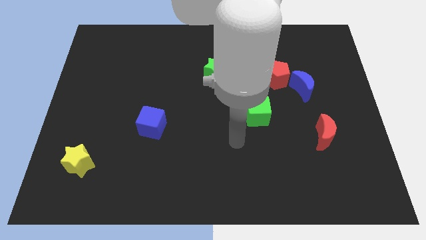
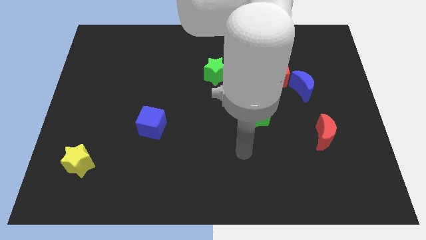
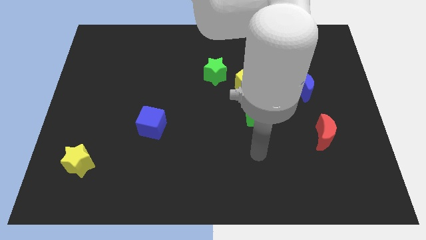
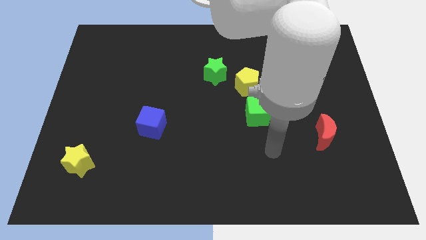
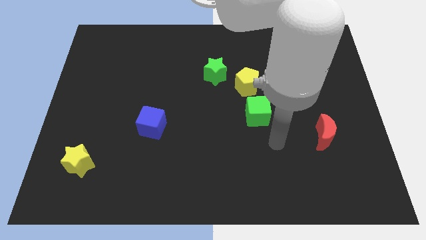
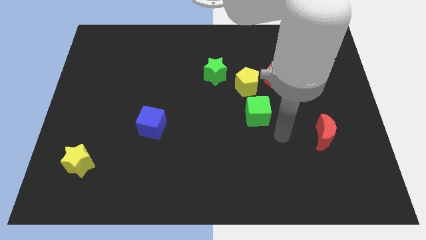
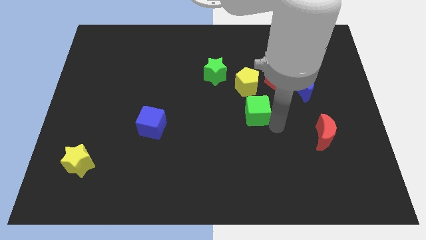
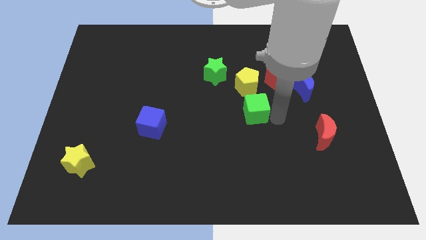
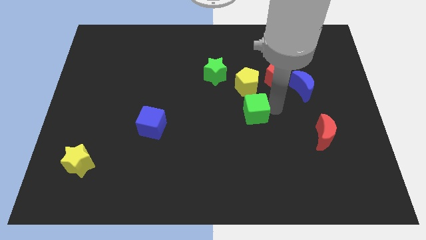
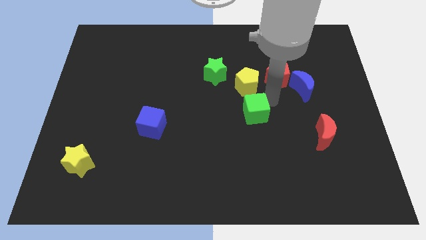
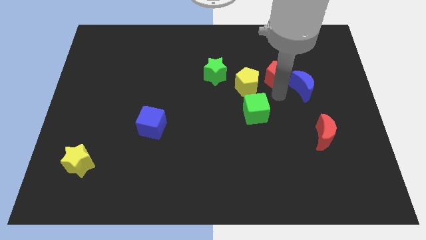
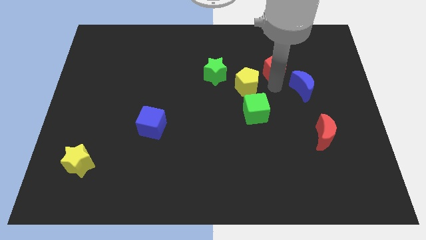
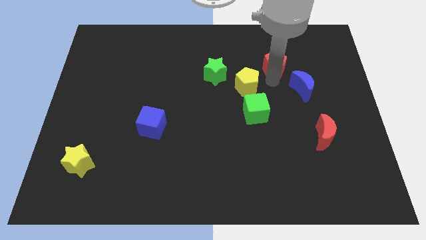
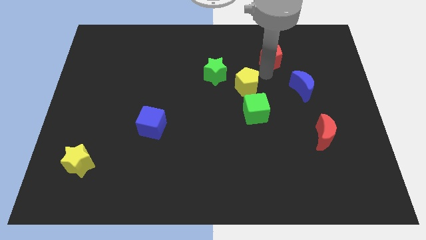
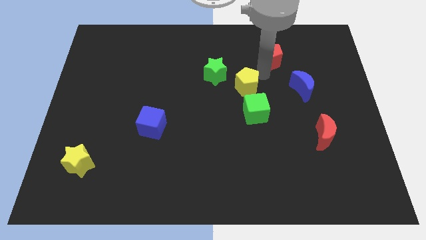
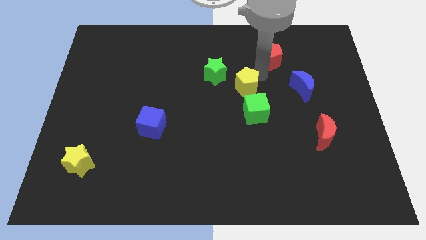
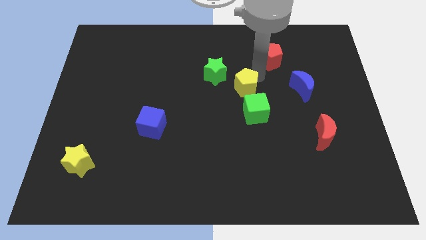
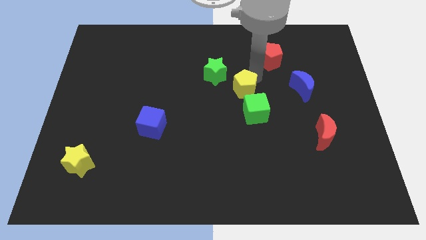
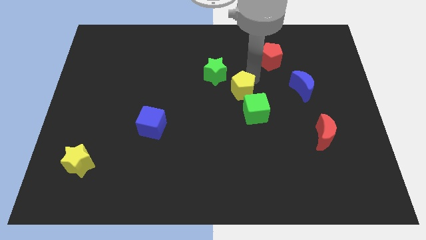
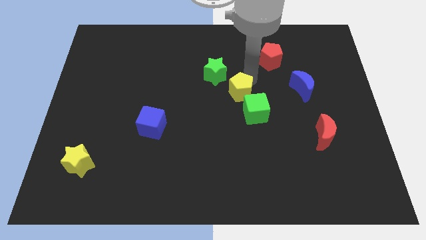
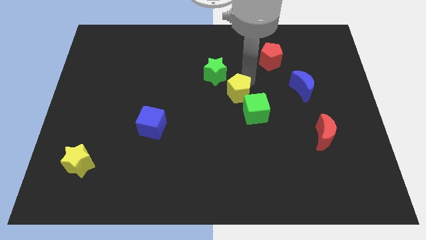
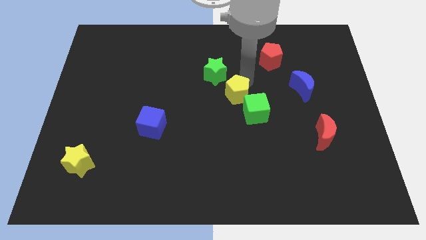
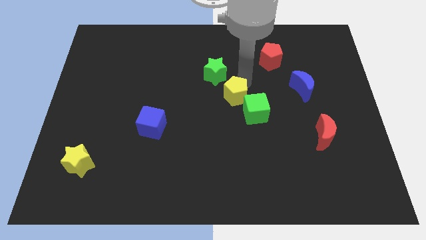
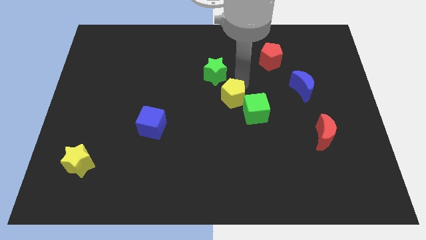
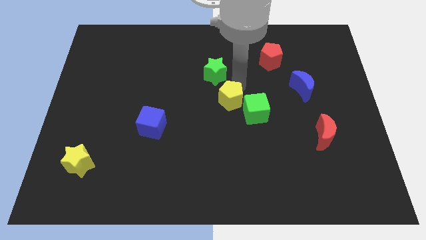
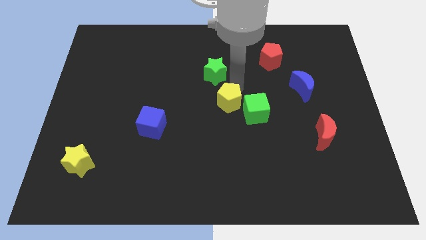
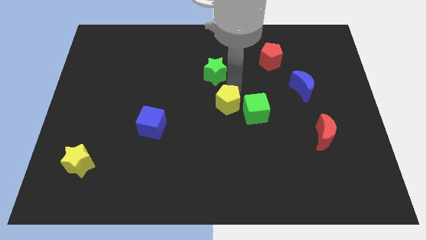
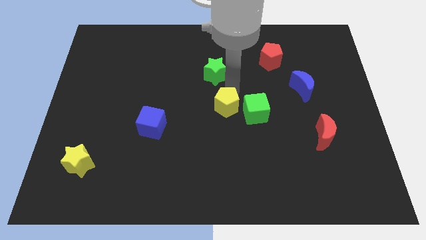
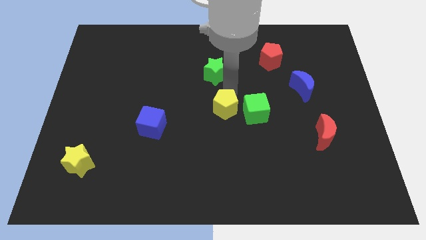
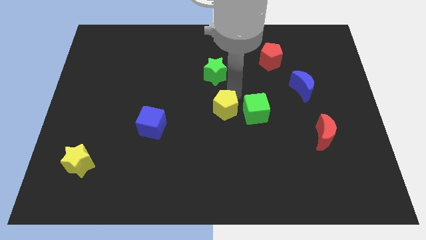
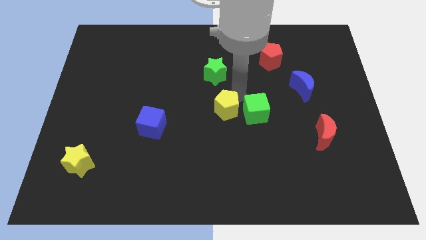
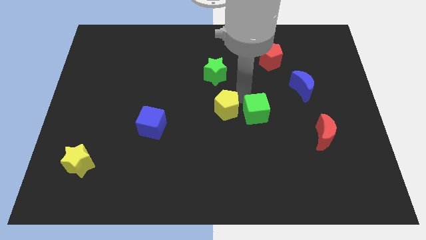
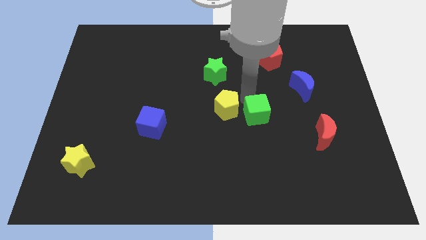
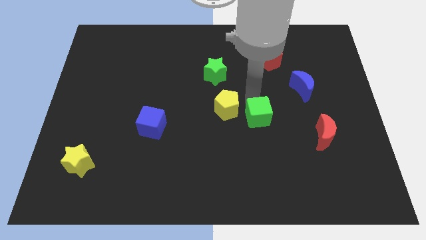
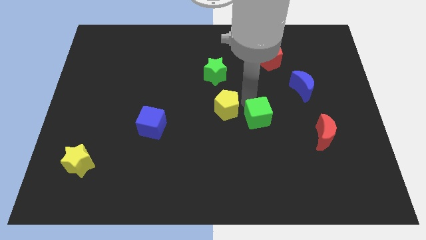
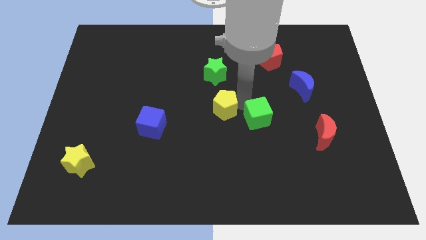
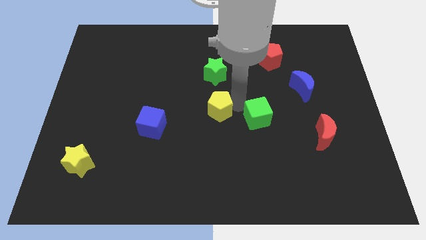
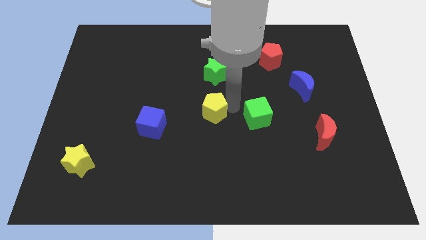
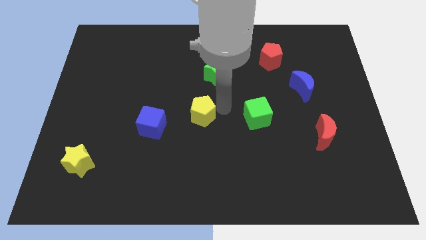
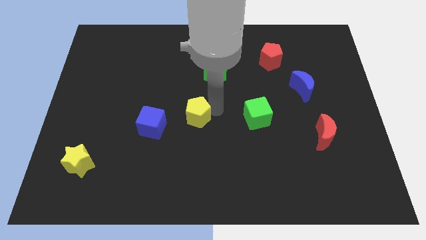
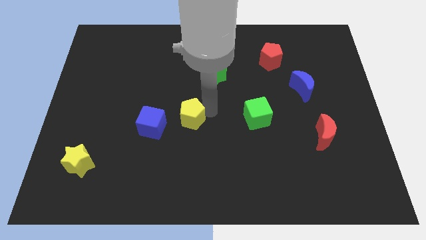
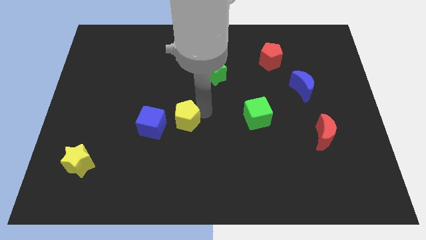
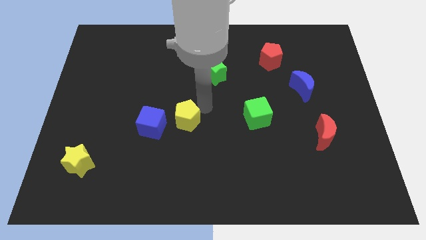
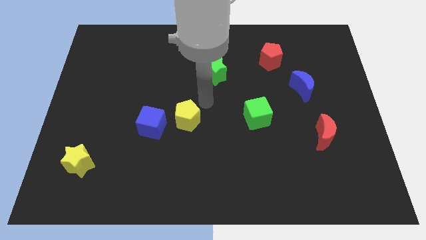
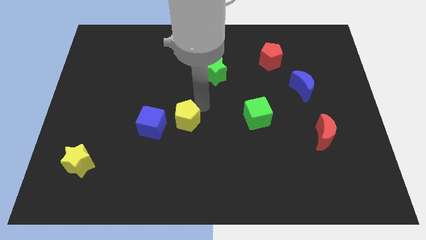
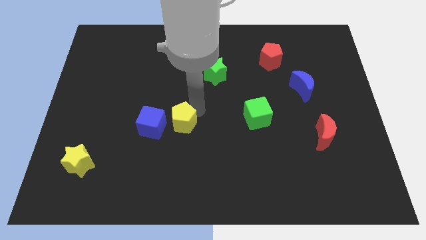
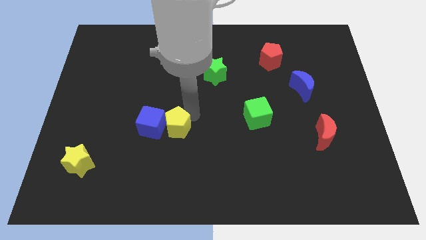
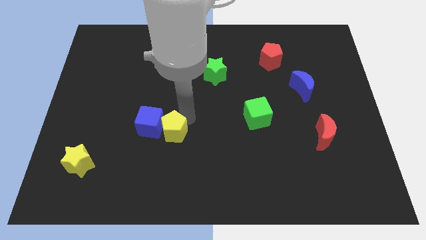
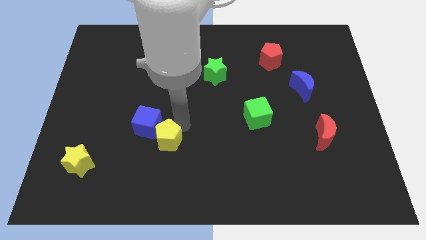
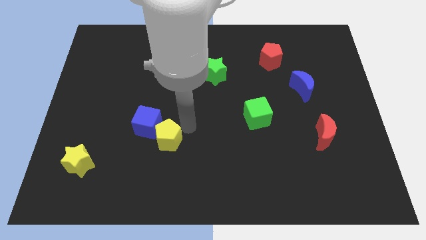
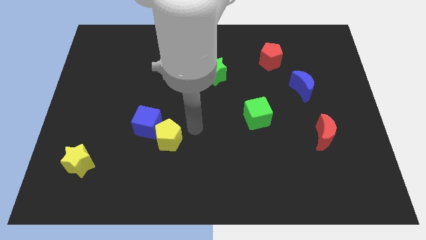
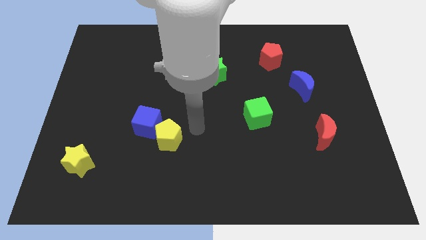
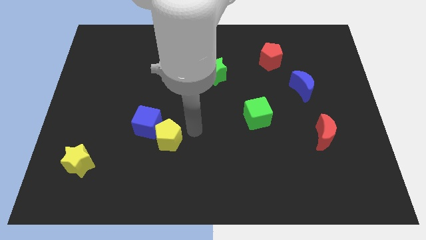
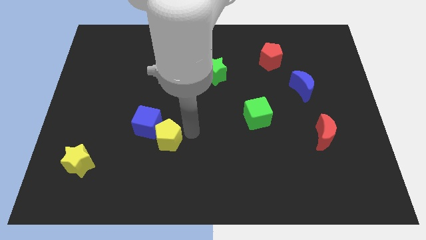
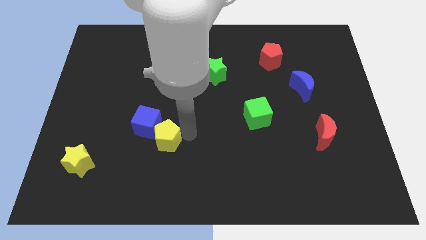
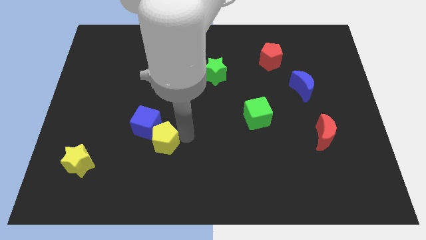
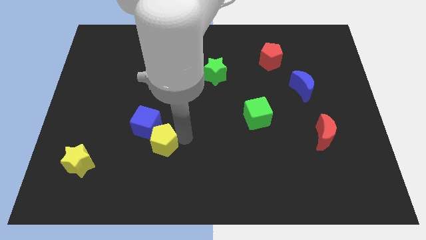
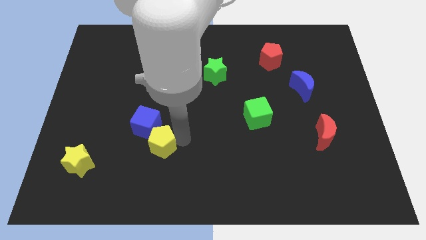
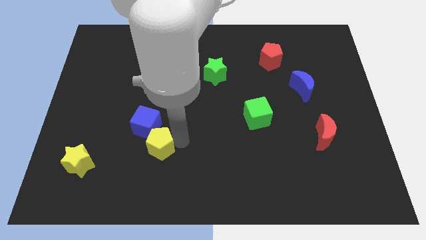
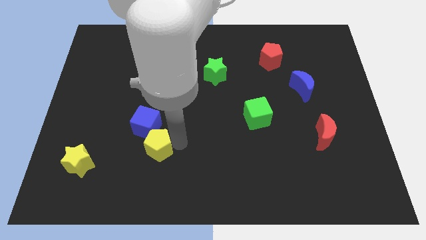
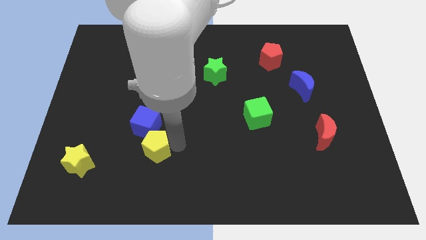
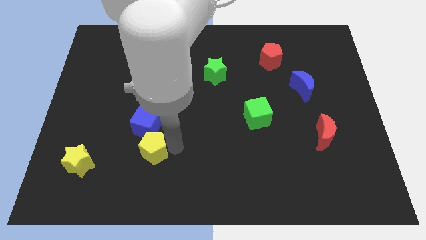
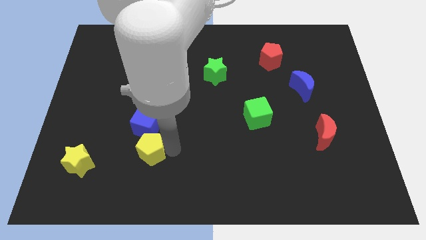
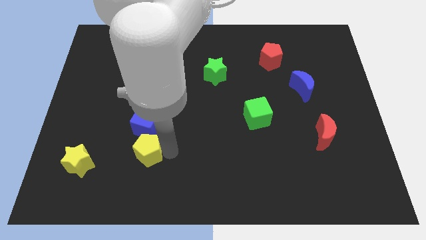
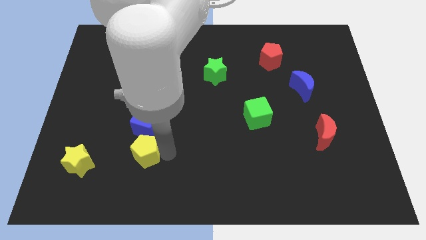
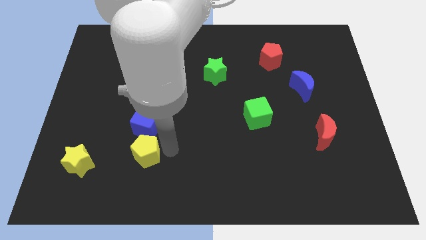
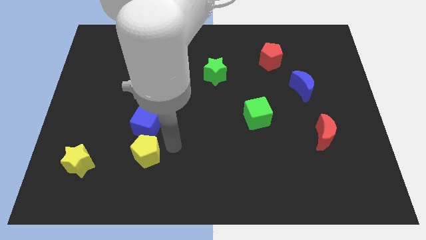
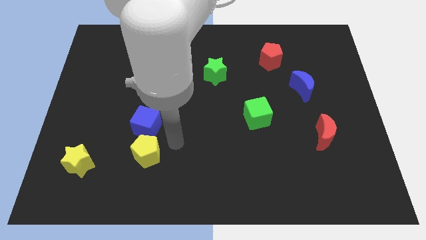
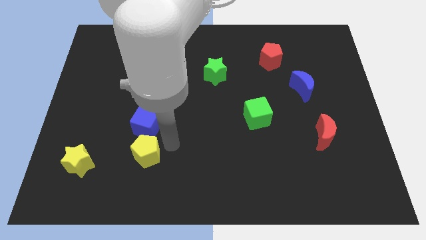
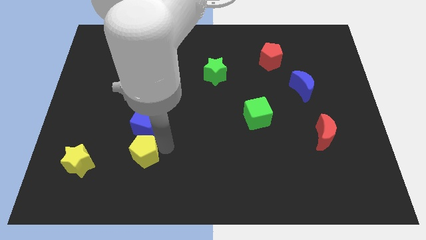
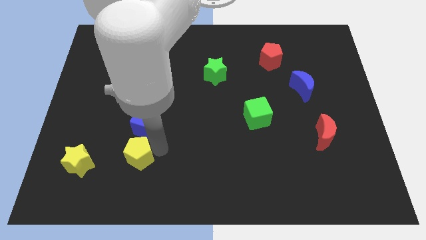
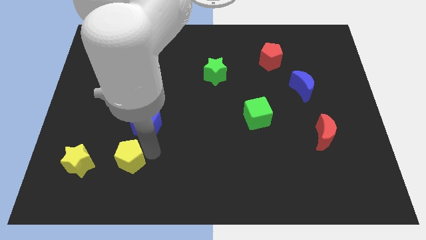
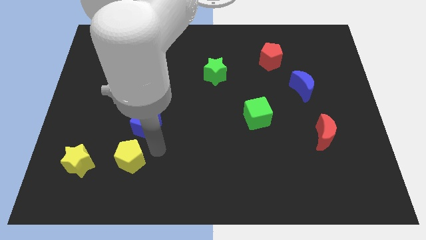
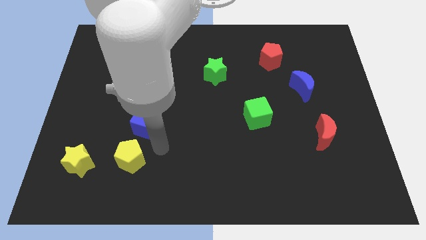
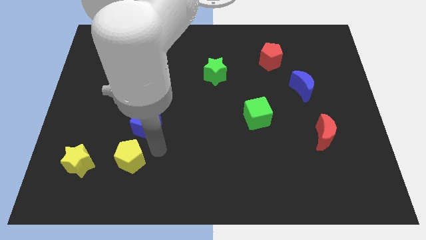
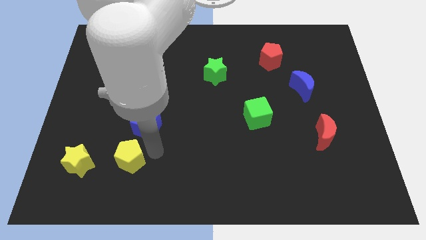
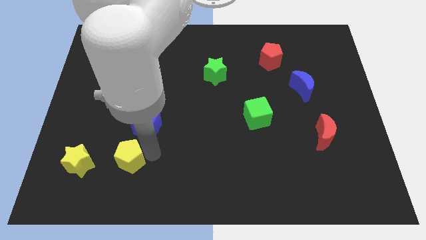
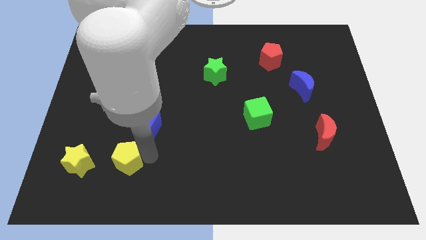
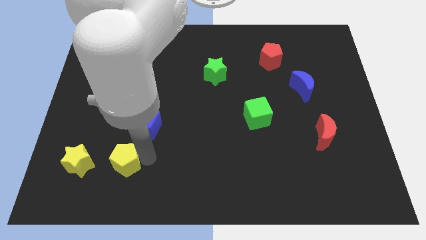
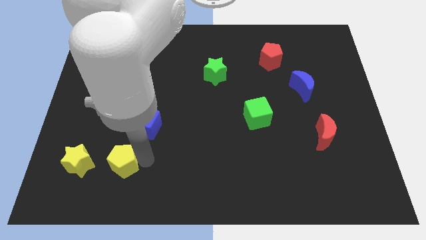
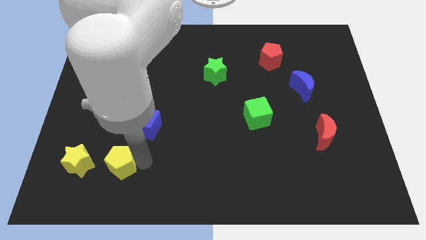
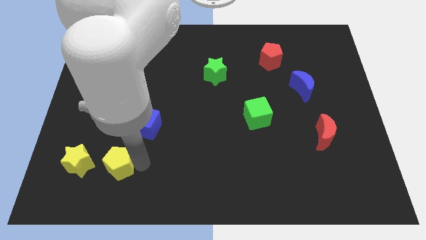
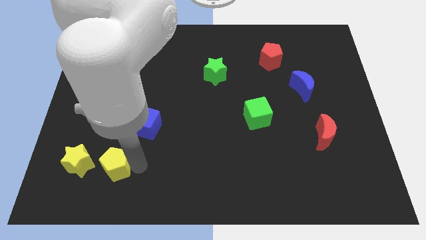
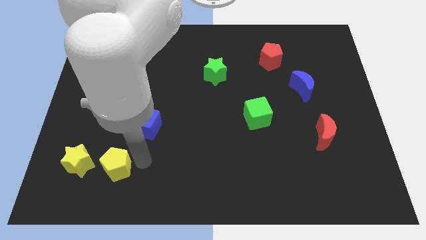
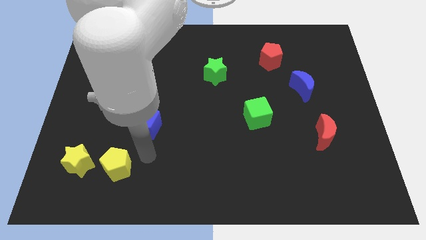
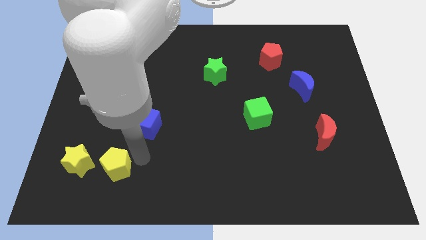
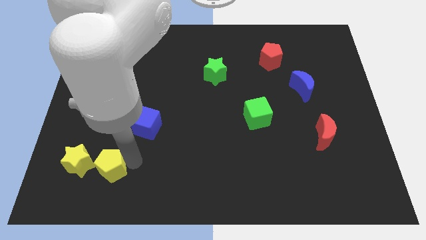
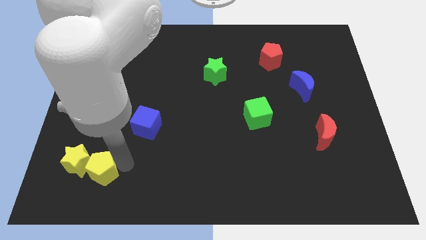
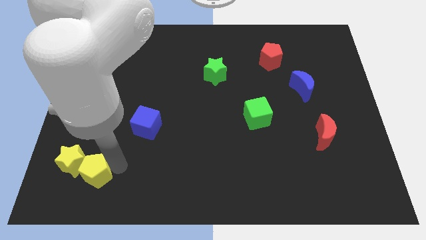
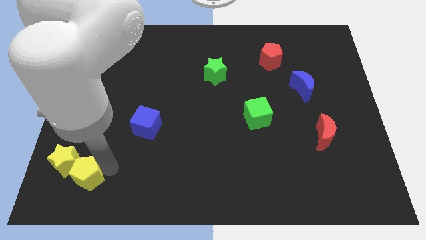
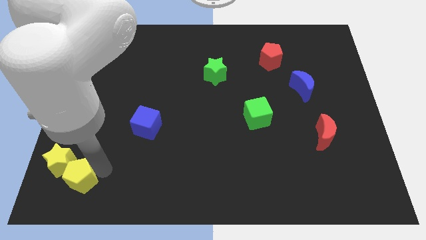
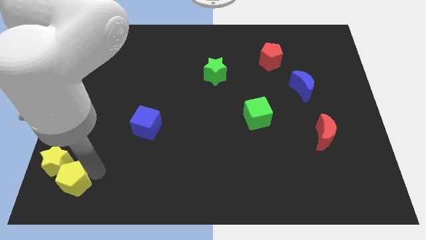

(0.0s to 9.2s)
slide the yellow pentagon to the bottom left corner
